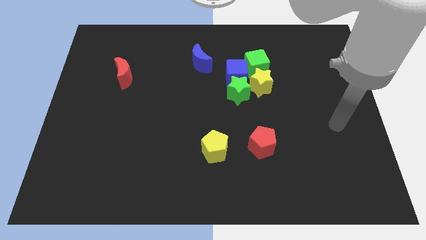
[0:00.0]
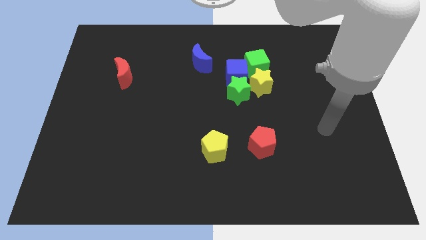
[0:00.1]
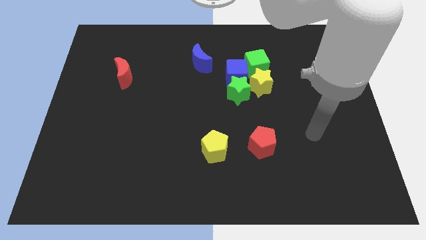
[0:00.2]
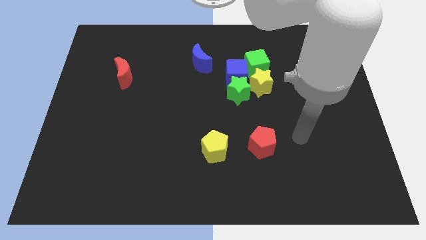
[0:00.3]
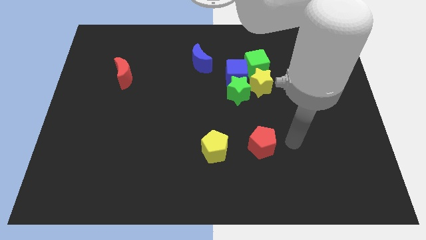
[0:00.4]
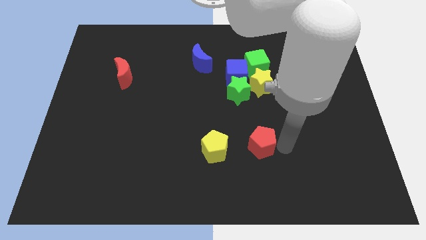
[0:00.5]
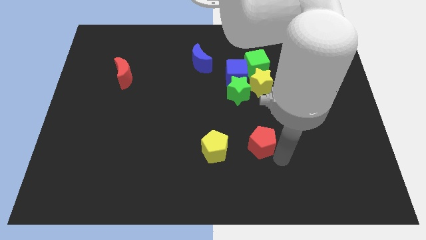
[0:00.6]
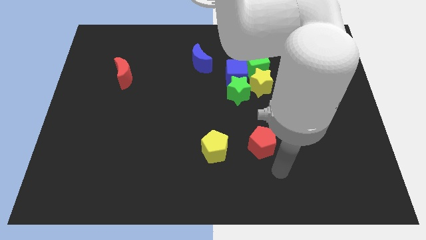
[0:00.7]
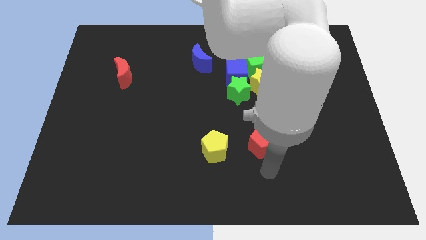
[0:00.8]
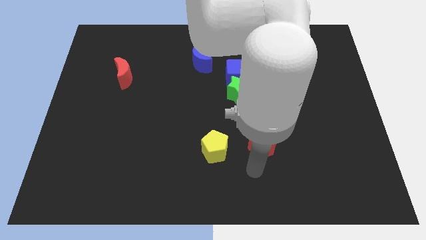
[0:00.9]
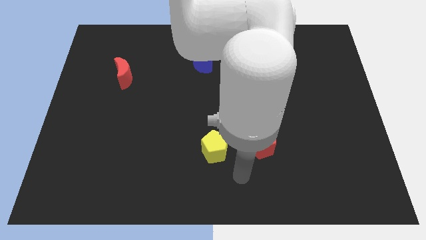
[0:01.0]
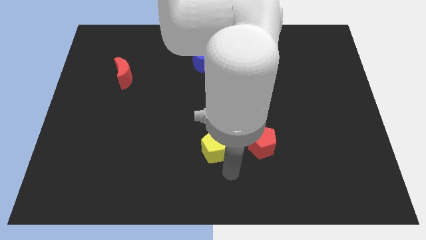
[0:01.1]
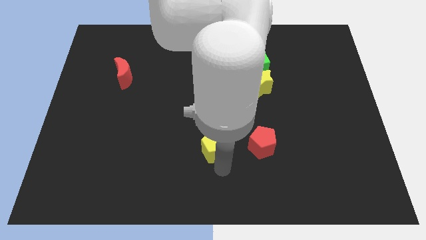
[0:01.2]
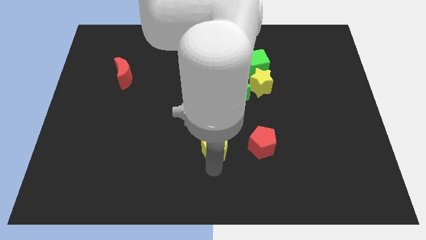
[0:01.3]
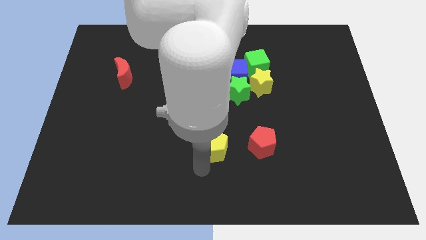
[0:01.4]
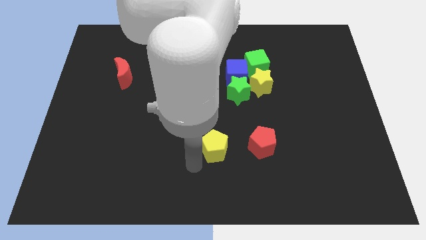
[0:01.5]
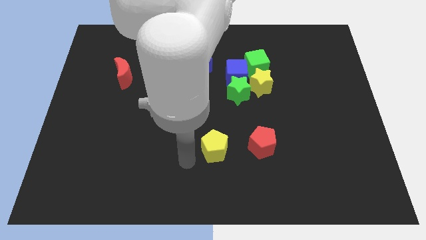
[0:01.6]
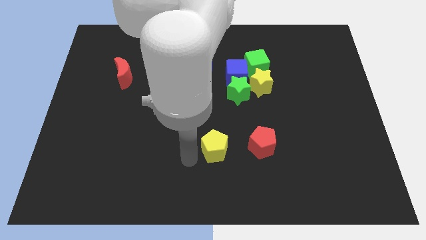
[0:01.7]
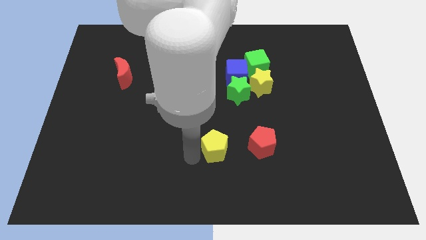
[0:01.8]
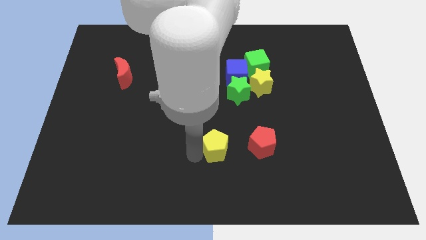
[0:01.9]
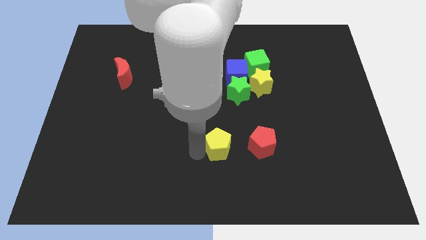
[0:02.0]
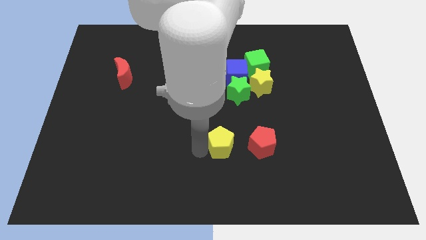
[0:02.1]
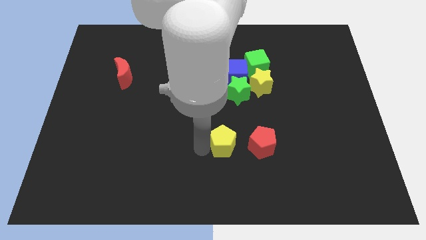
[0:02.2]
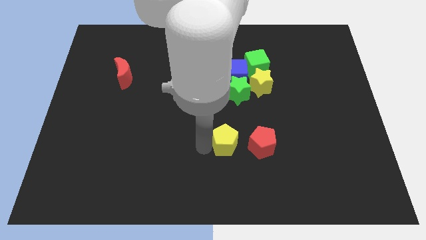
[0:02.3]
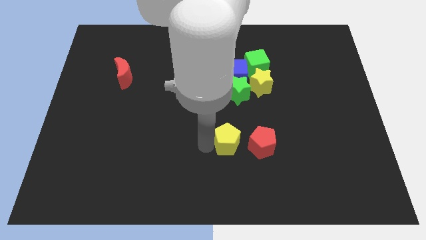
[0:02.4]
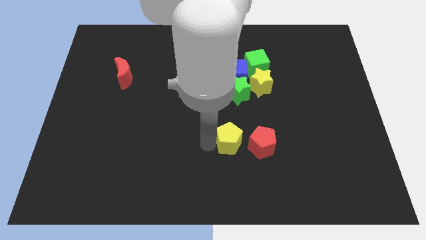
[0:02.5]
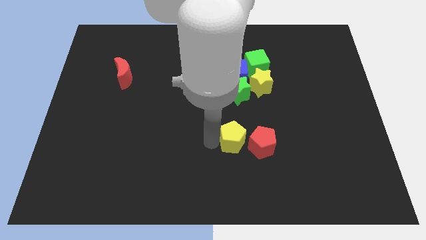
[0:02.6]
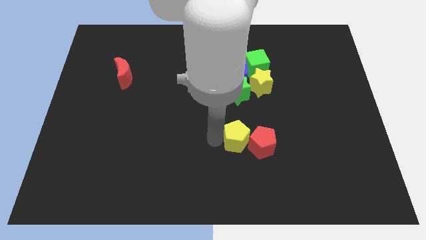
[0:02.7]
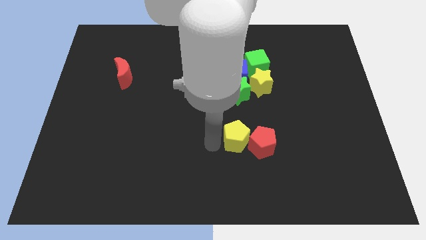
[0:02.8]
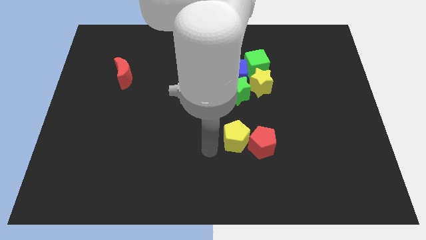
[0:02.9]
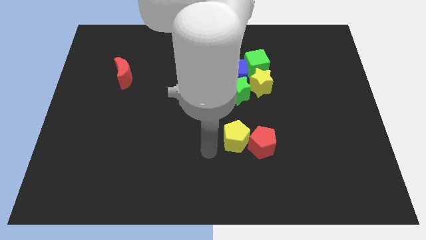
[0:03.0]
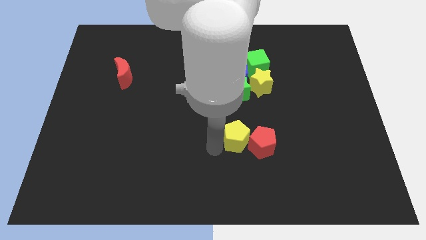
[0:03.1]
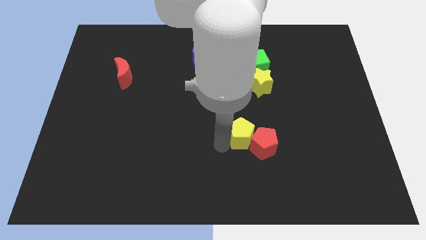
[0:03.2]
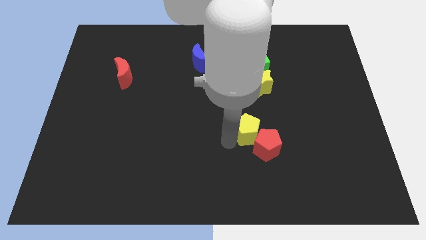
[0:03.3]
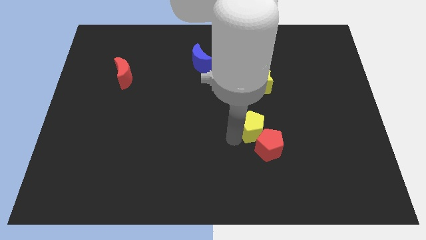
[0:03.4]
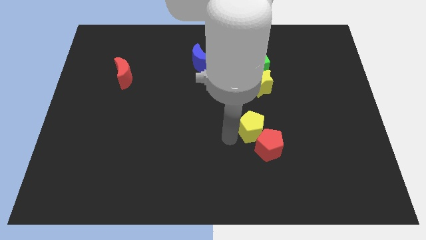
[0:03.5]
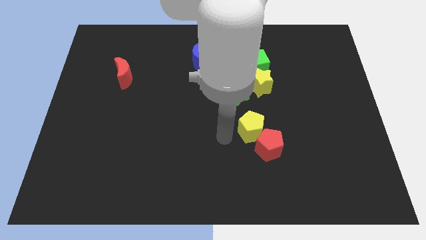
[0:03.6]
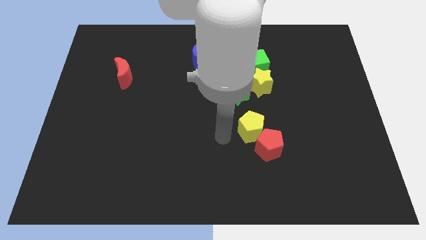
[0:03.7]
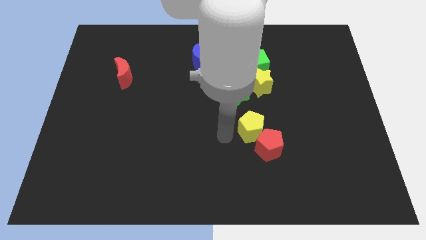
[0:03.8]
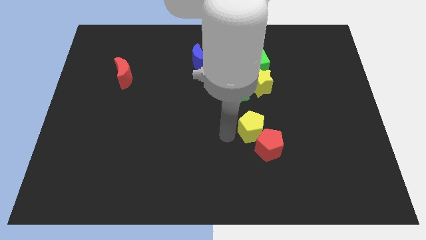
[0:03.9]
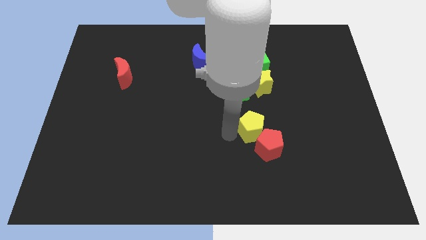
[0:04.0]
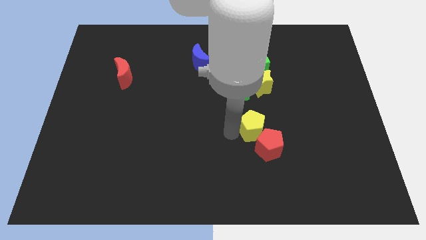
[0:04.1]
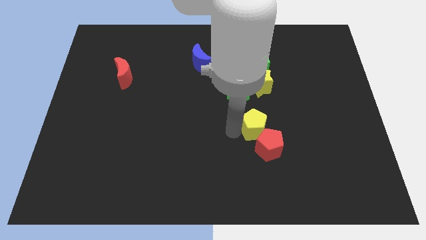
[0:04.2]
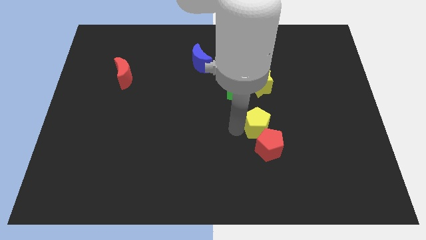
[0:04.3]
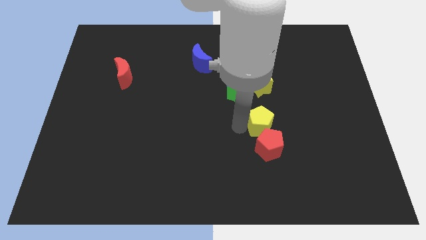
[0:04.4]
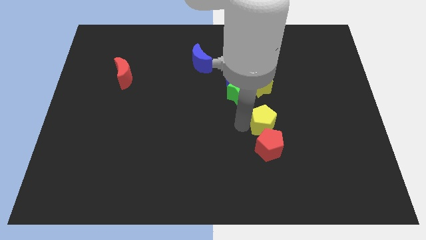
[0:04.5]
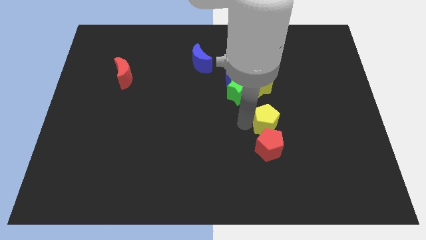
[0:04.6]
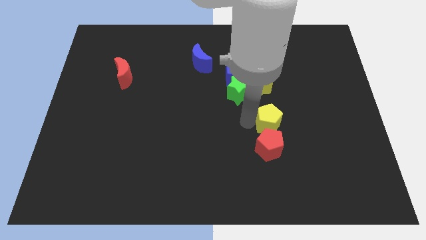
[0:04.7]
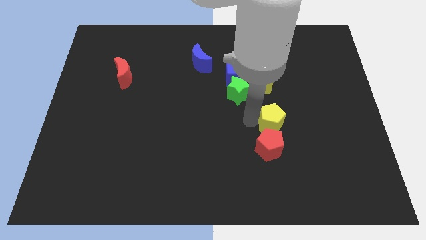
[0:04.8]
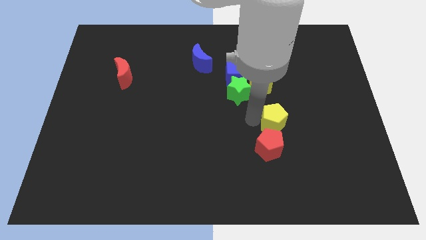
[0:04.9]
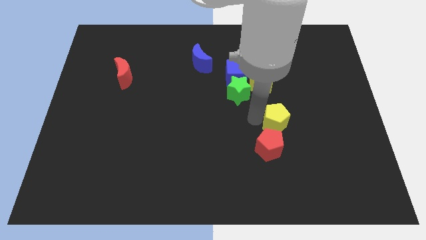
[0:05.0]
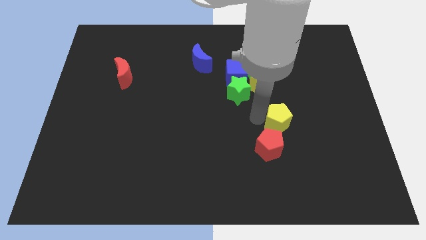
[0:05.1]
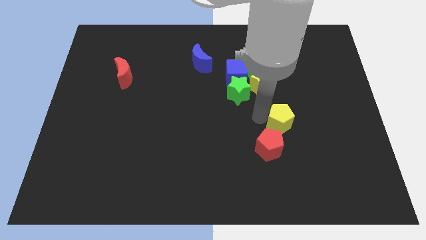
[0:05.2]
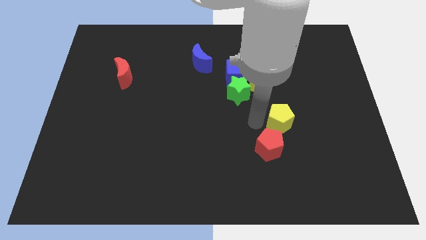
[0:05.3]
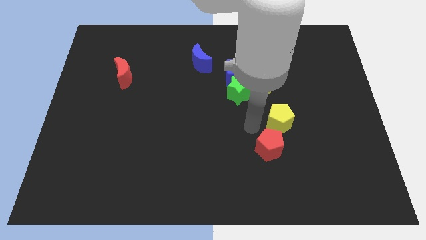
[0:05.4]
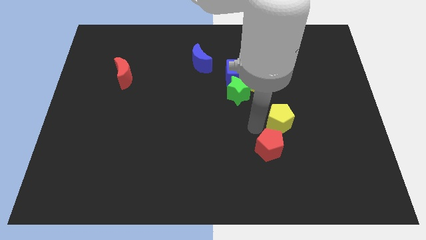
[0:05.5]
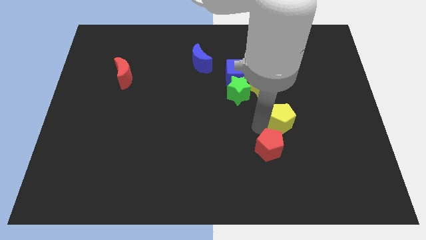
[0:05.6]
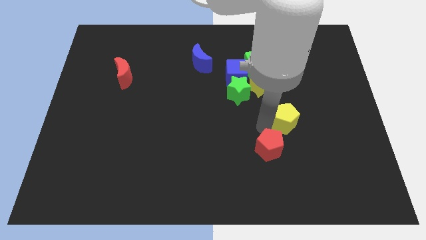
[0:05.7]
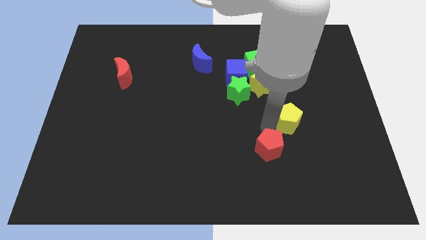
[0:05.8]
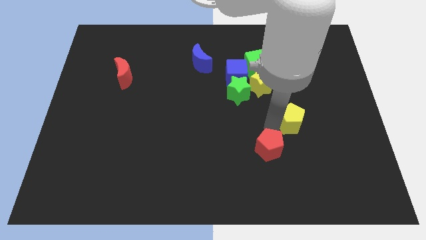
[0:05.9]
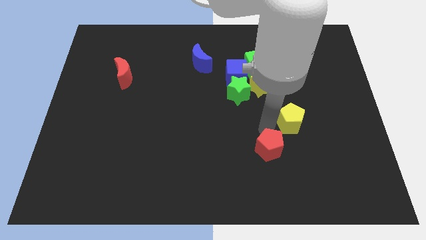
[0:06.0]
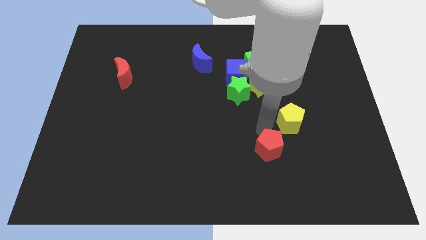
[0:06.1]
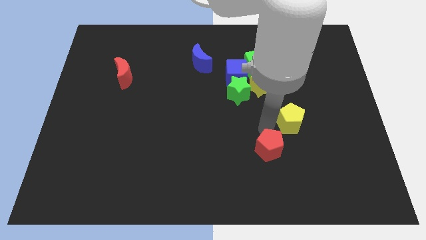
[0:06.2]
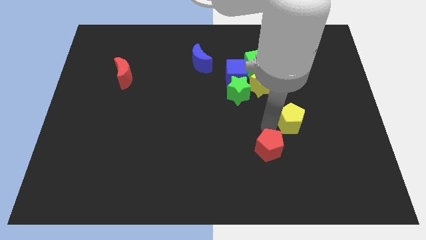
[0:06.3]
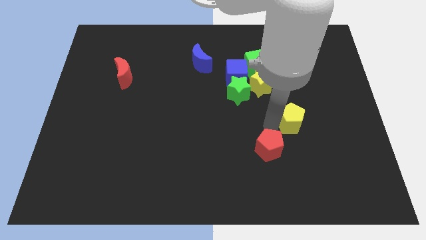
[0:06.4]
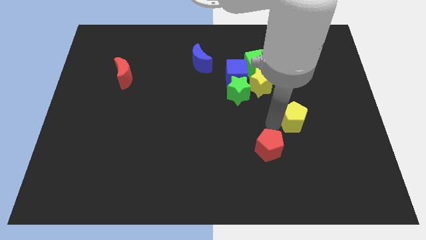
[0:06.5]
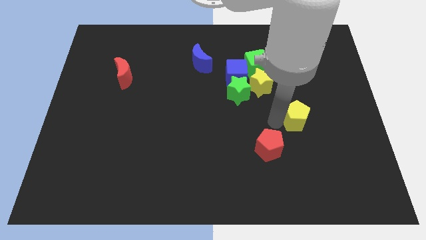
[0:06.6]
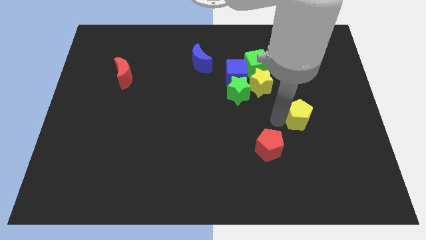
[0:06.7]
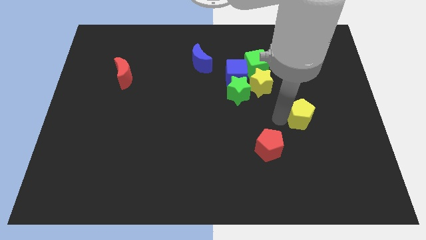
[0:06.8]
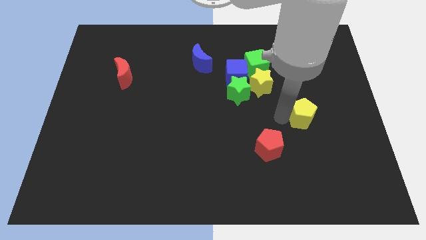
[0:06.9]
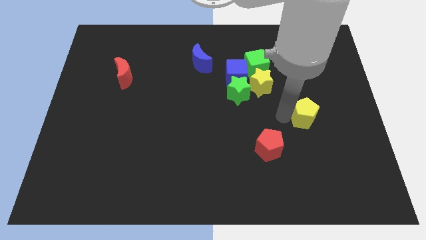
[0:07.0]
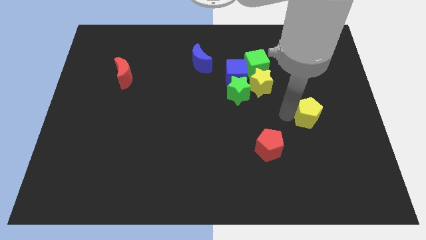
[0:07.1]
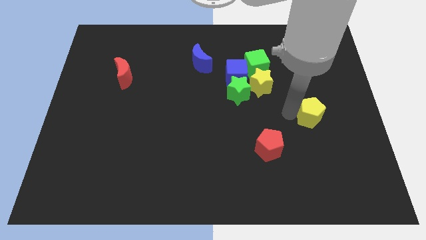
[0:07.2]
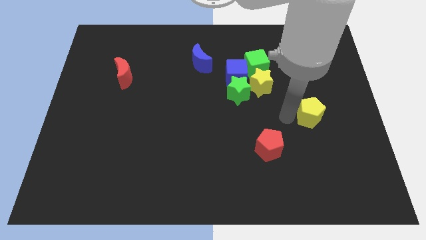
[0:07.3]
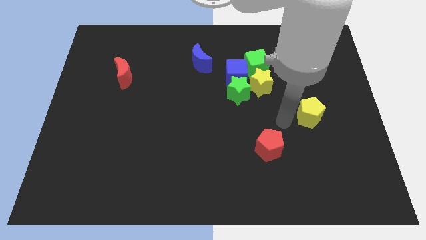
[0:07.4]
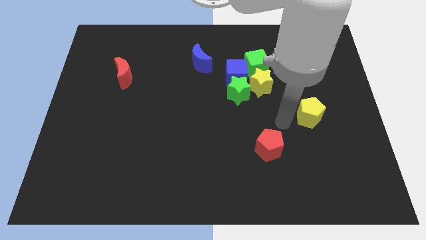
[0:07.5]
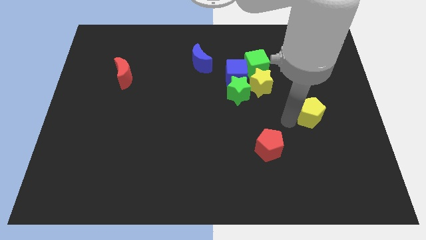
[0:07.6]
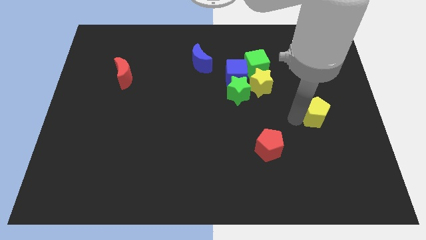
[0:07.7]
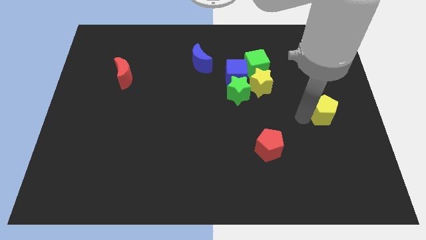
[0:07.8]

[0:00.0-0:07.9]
move the yellow pentagon to the center right
